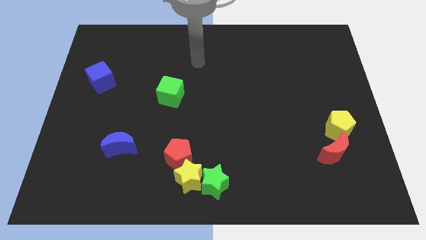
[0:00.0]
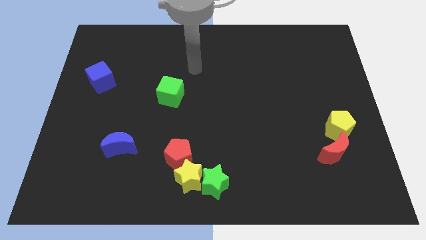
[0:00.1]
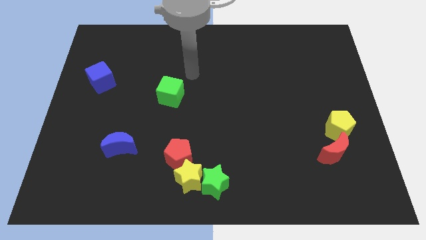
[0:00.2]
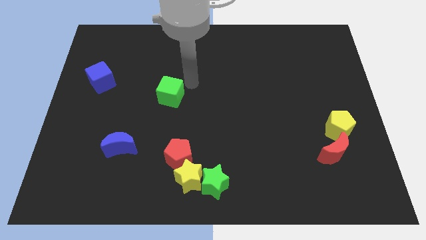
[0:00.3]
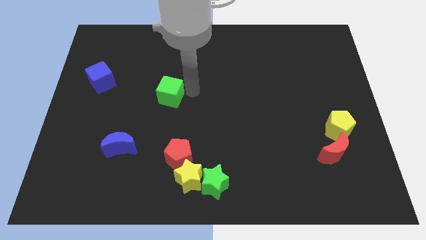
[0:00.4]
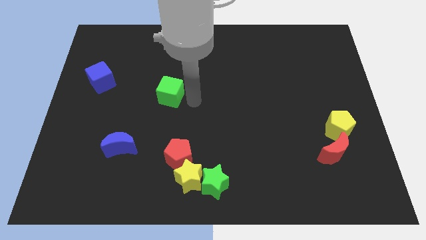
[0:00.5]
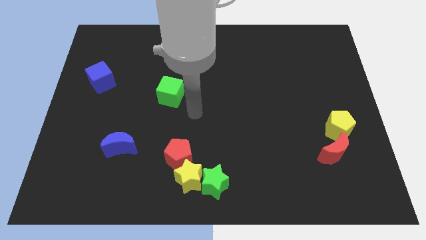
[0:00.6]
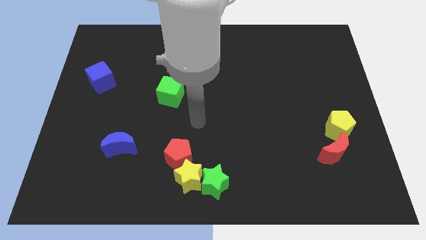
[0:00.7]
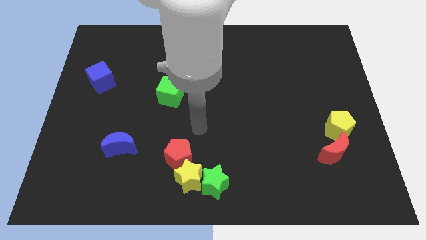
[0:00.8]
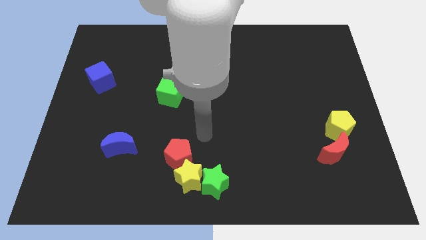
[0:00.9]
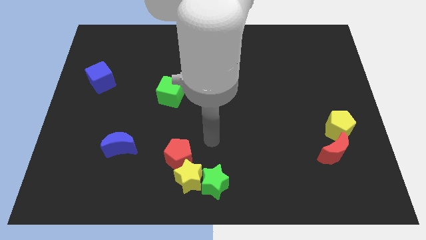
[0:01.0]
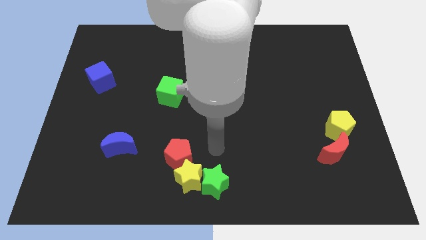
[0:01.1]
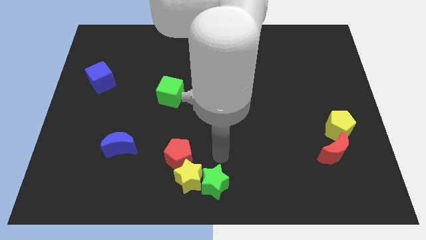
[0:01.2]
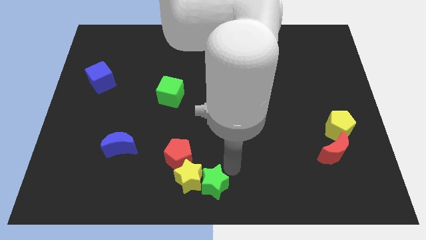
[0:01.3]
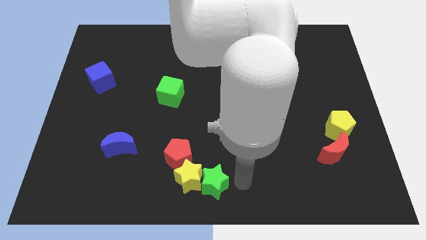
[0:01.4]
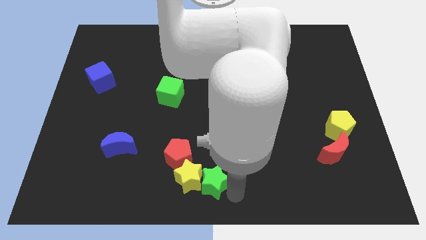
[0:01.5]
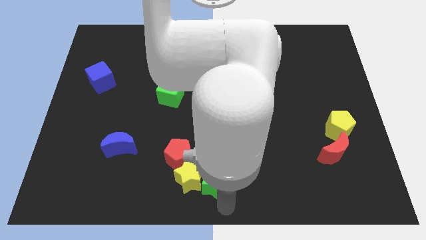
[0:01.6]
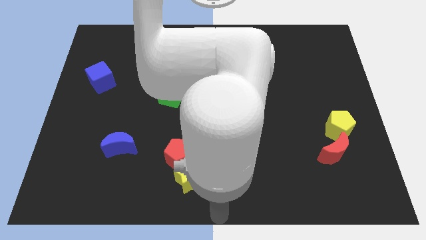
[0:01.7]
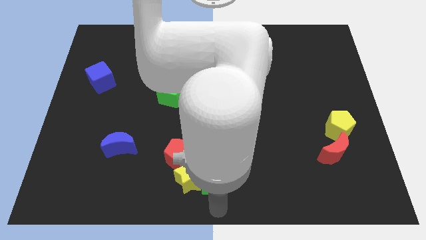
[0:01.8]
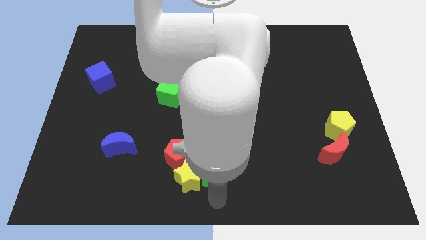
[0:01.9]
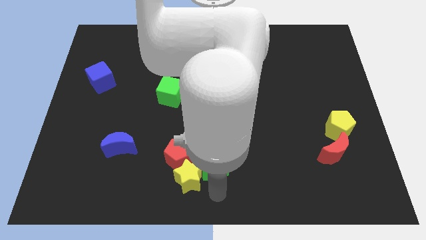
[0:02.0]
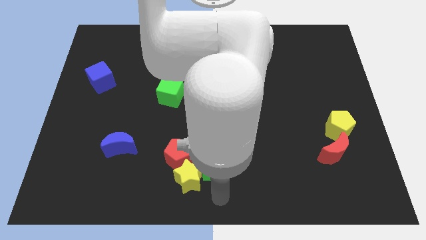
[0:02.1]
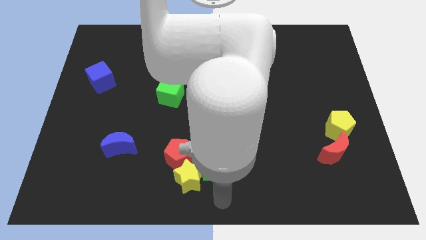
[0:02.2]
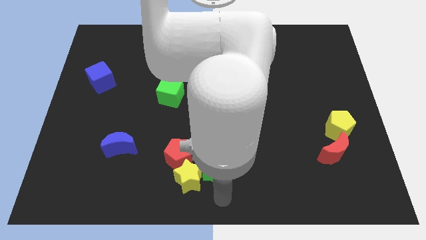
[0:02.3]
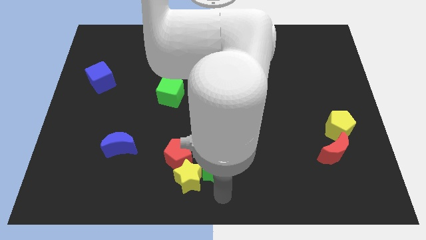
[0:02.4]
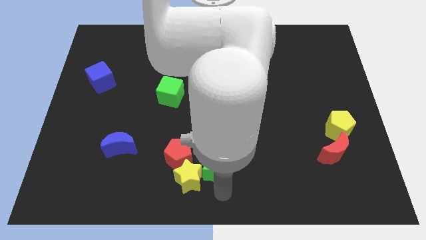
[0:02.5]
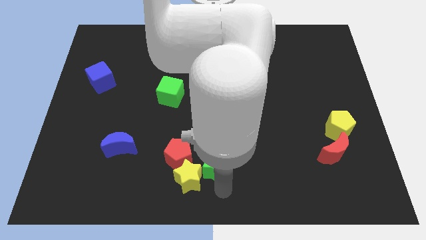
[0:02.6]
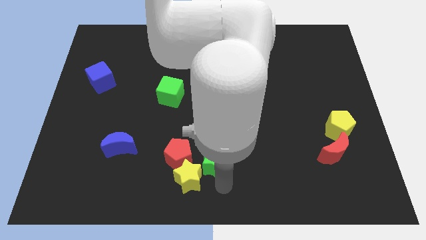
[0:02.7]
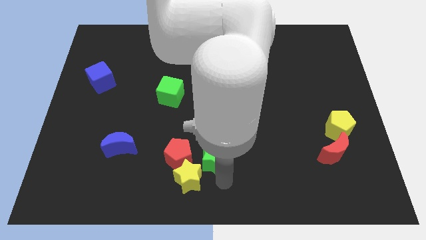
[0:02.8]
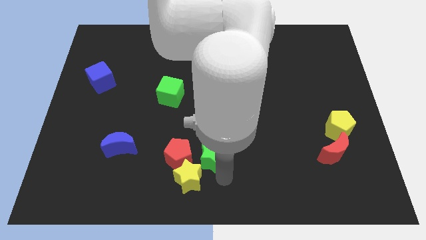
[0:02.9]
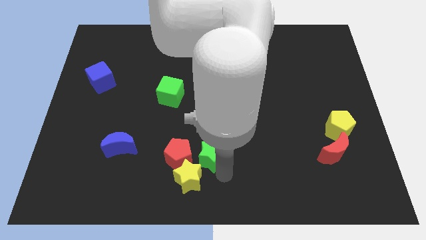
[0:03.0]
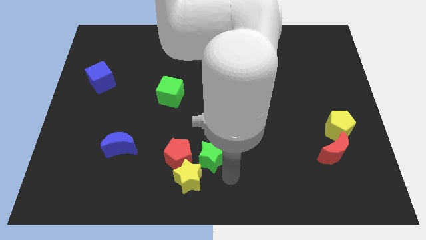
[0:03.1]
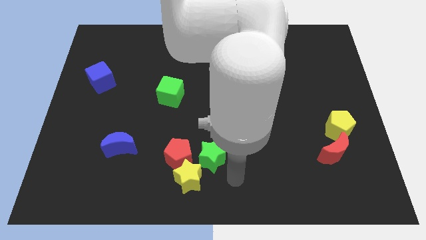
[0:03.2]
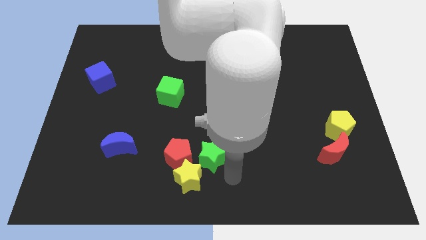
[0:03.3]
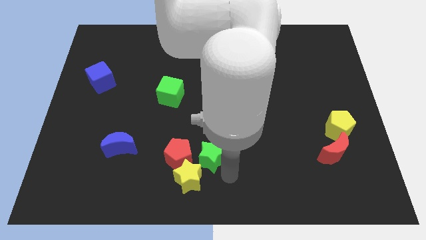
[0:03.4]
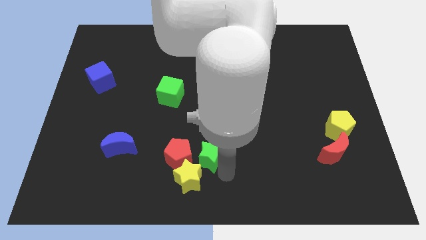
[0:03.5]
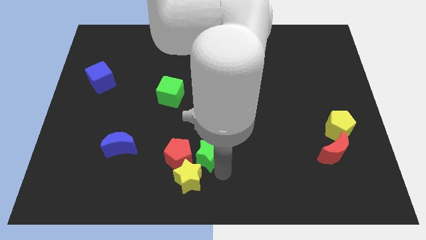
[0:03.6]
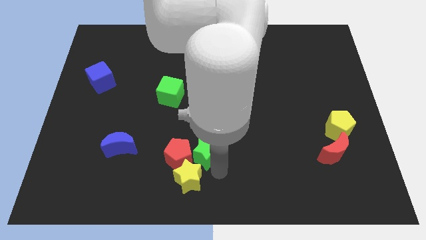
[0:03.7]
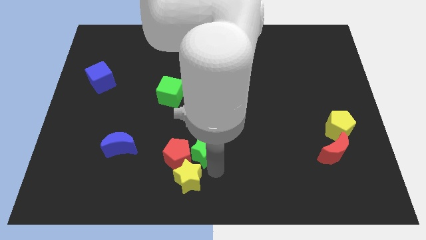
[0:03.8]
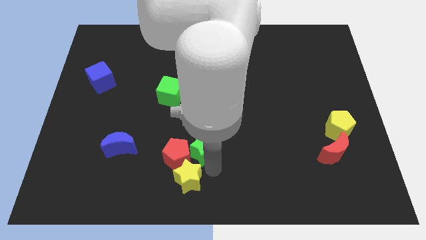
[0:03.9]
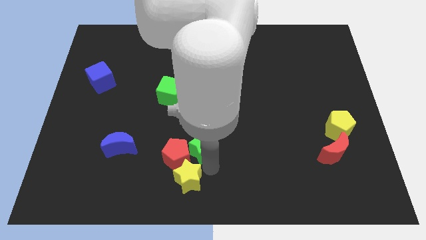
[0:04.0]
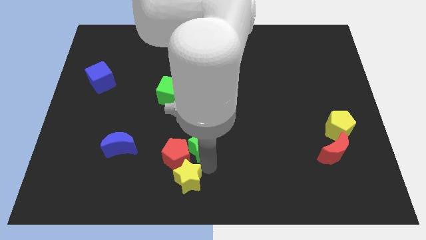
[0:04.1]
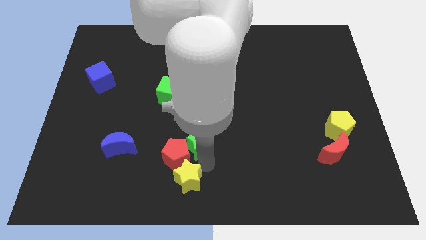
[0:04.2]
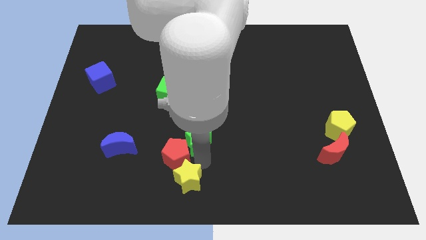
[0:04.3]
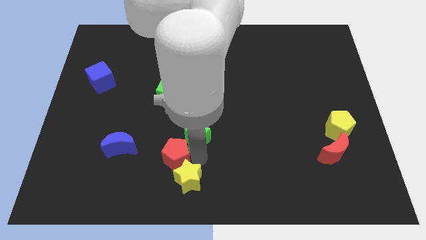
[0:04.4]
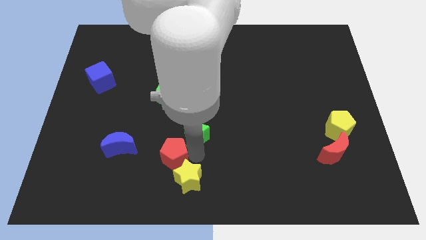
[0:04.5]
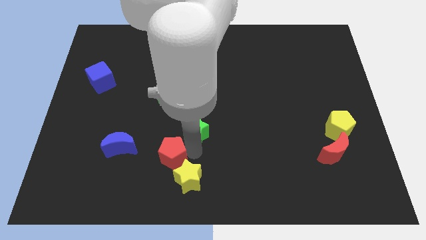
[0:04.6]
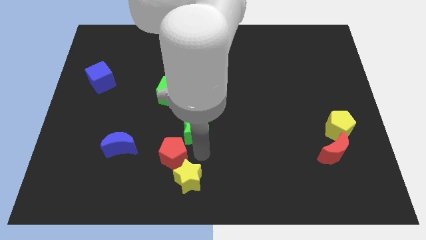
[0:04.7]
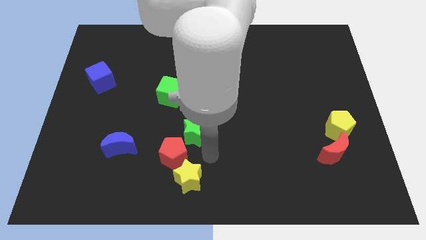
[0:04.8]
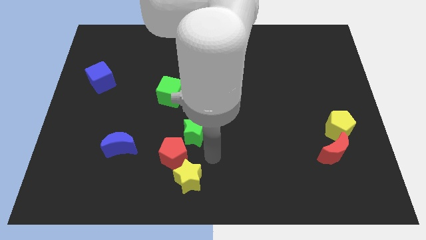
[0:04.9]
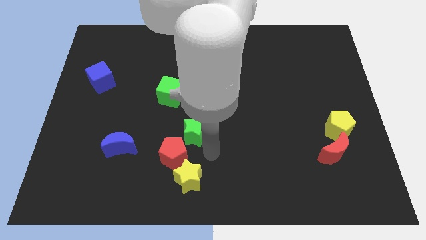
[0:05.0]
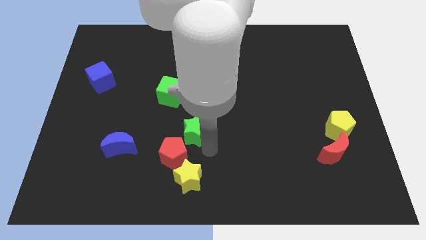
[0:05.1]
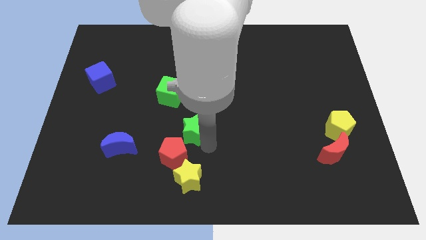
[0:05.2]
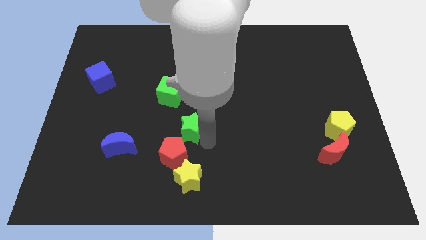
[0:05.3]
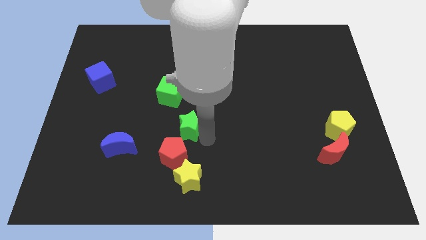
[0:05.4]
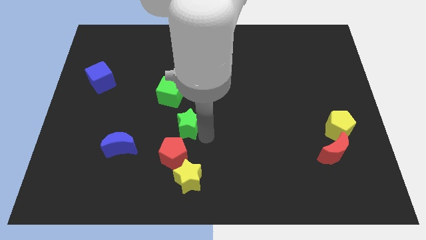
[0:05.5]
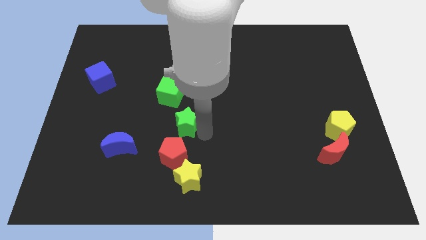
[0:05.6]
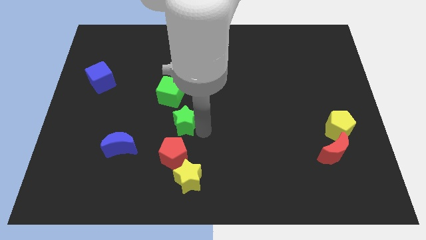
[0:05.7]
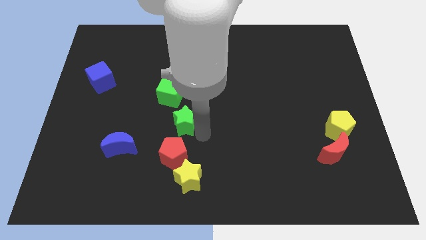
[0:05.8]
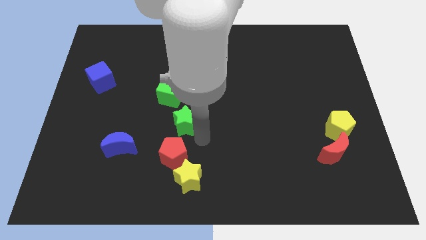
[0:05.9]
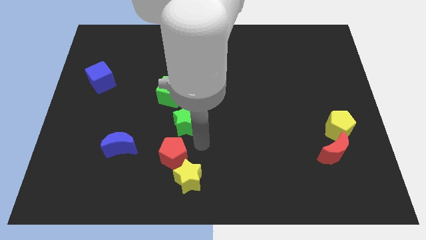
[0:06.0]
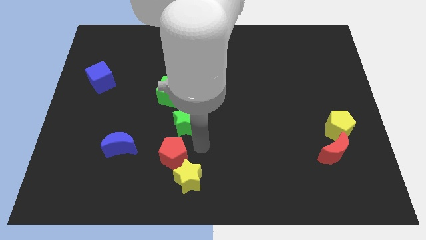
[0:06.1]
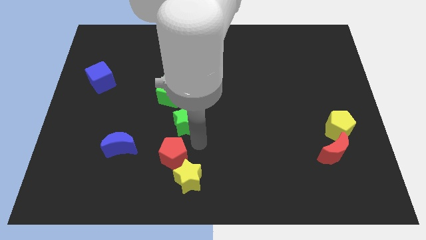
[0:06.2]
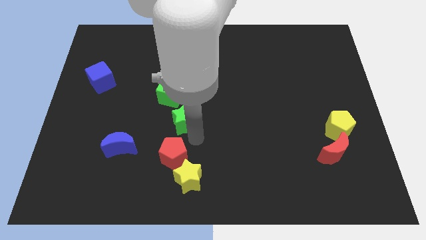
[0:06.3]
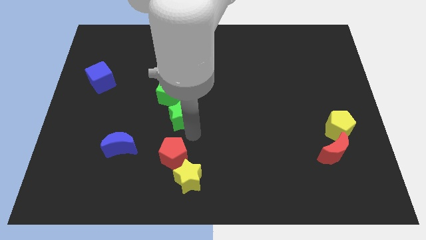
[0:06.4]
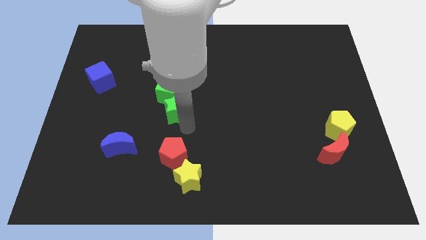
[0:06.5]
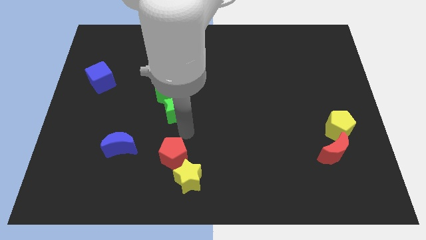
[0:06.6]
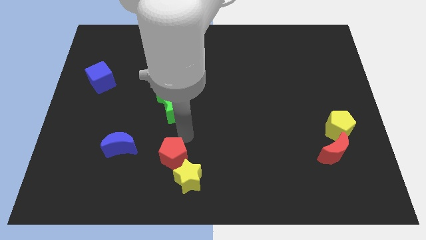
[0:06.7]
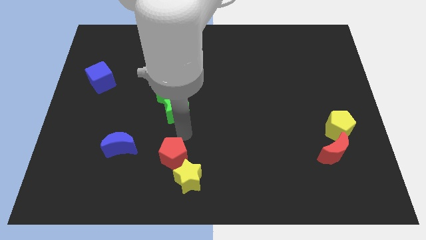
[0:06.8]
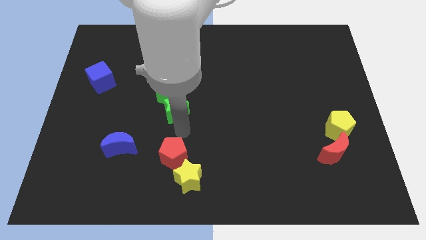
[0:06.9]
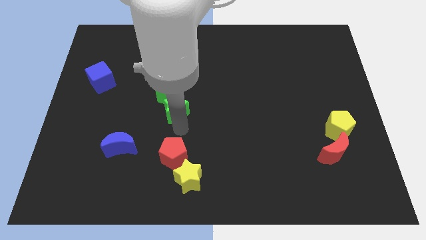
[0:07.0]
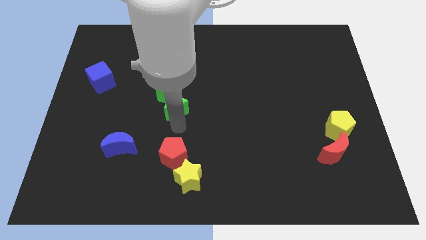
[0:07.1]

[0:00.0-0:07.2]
push the green star to the green cube
